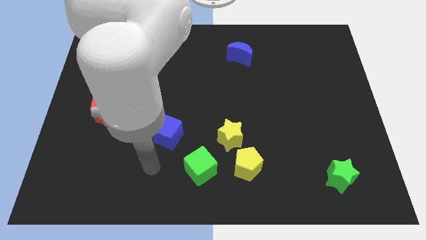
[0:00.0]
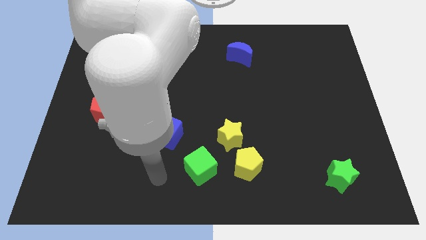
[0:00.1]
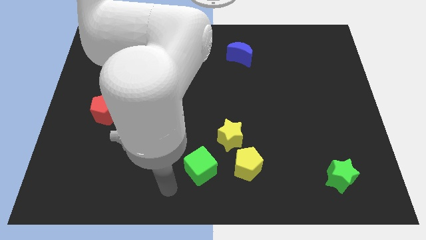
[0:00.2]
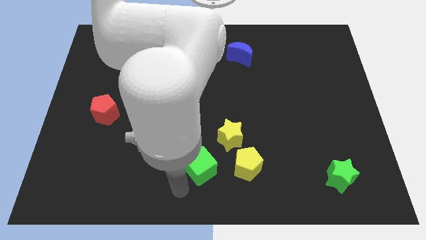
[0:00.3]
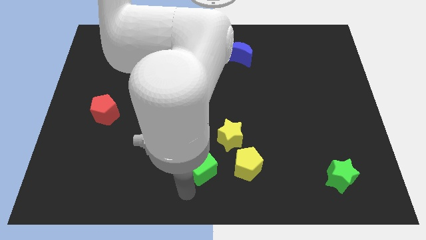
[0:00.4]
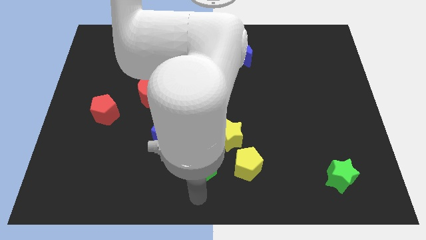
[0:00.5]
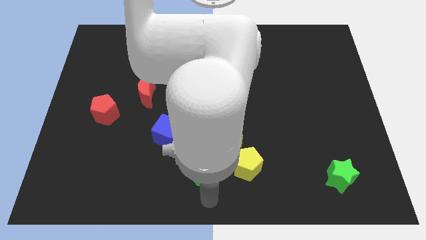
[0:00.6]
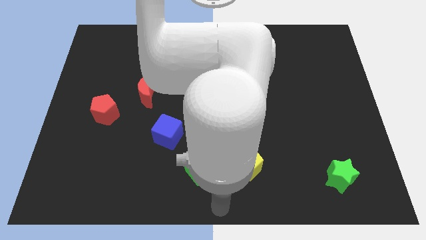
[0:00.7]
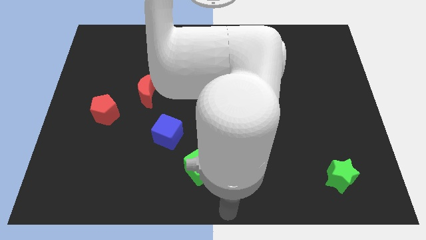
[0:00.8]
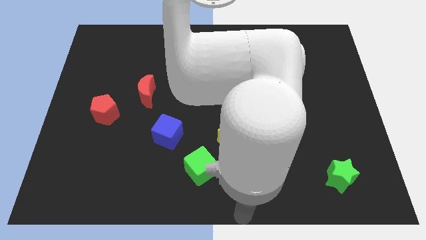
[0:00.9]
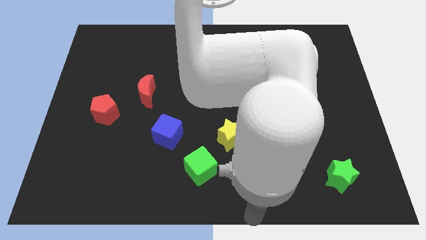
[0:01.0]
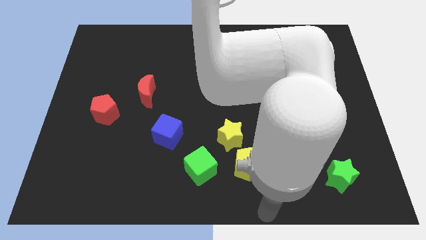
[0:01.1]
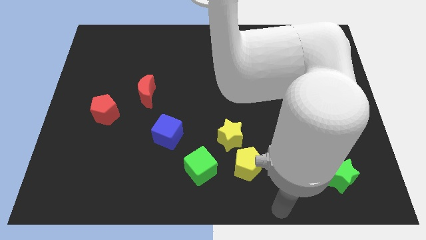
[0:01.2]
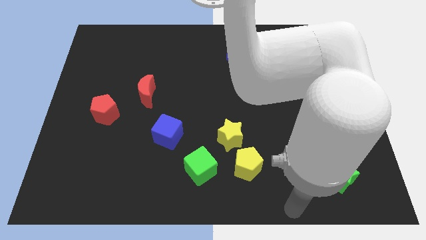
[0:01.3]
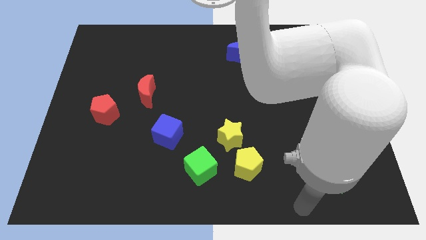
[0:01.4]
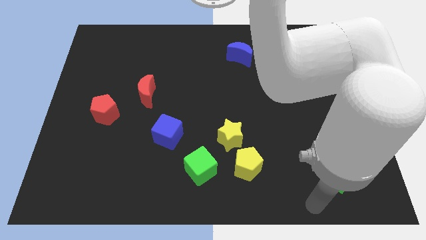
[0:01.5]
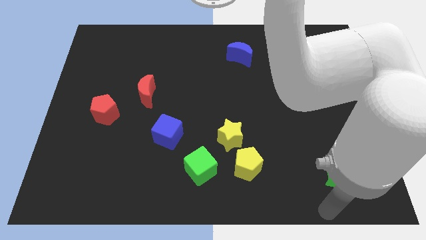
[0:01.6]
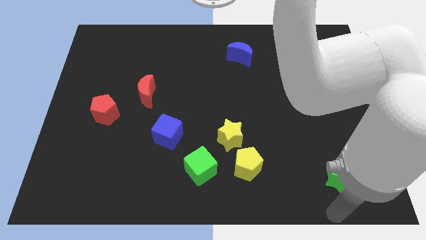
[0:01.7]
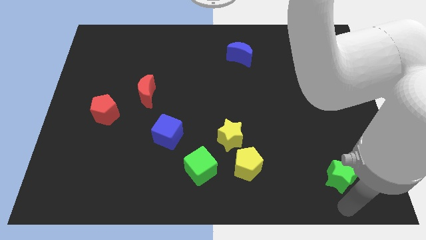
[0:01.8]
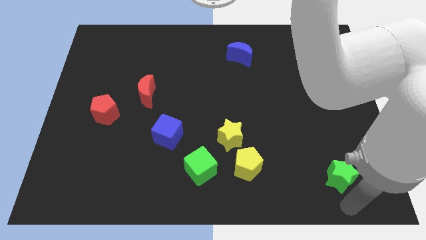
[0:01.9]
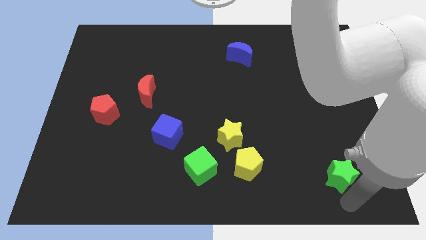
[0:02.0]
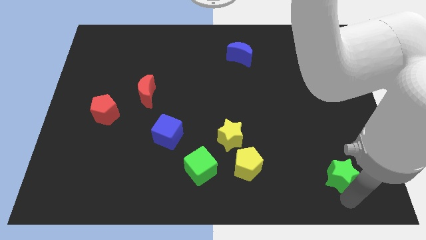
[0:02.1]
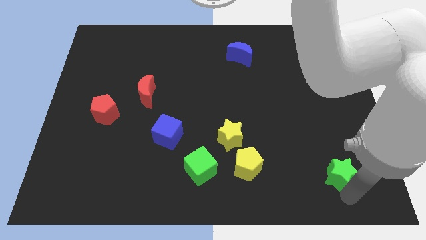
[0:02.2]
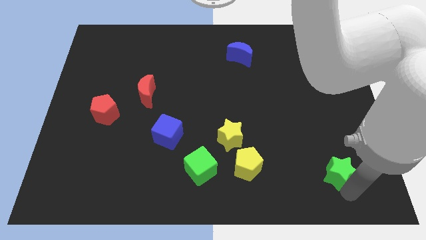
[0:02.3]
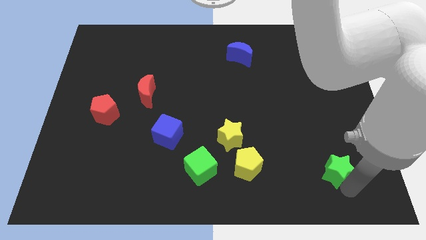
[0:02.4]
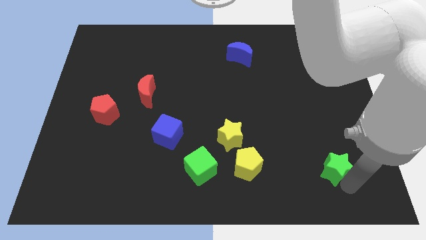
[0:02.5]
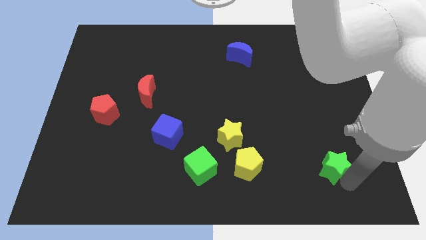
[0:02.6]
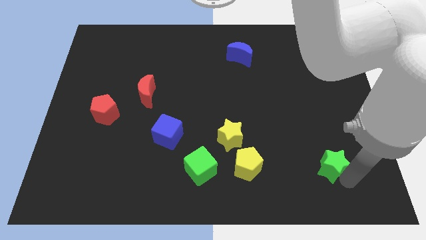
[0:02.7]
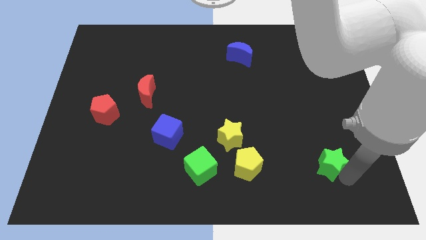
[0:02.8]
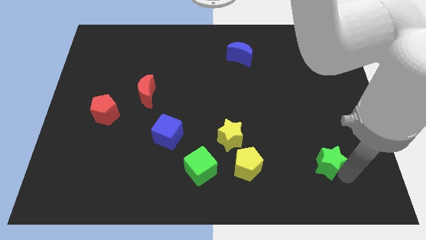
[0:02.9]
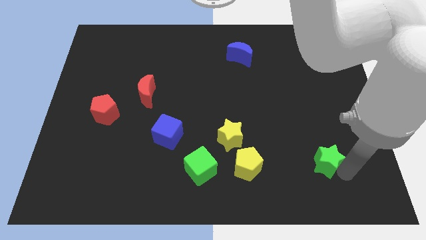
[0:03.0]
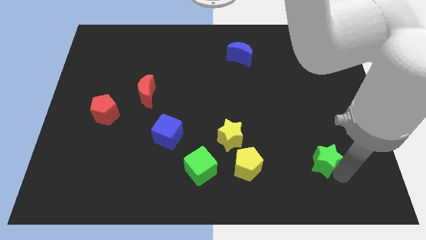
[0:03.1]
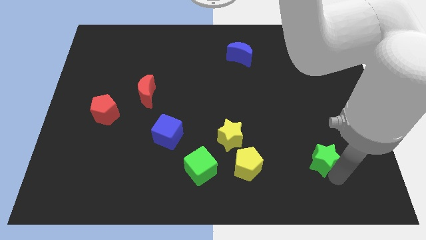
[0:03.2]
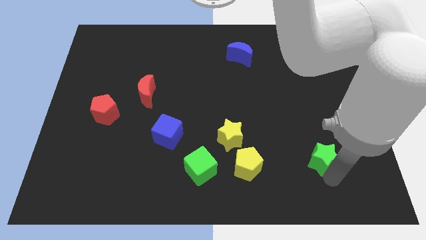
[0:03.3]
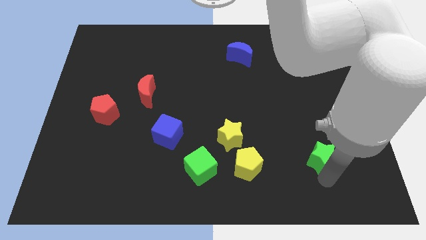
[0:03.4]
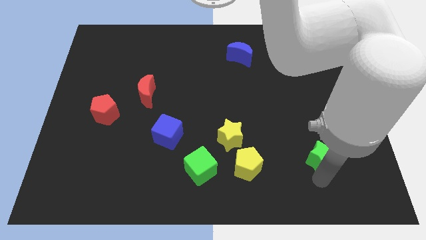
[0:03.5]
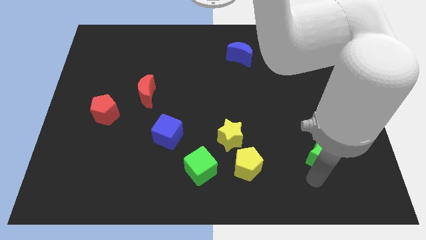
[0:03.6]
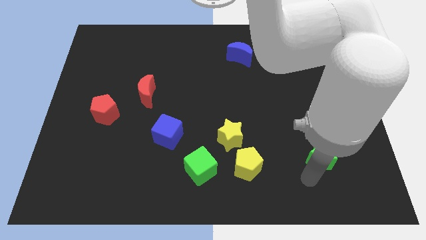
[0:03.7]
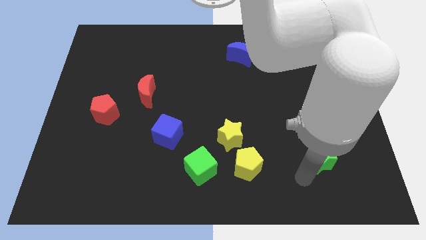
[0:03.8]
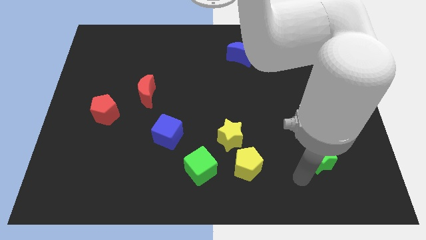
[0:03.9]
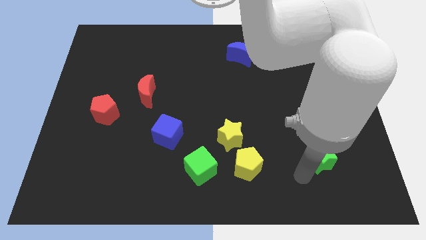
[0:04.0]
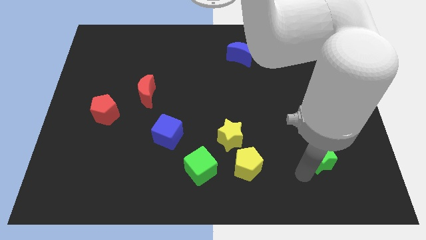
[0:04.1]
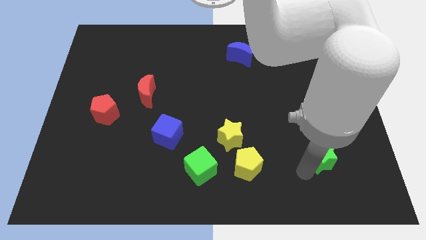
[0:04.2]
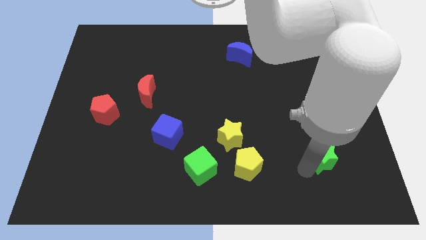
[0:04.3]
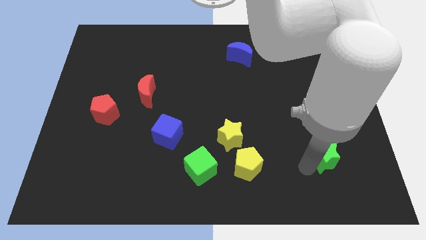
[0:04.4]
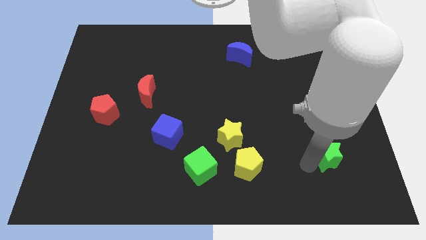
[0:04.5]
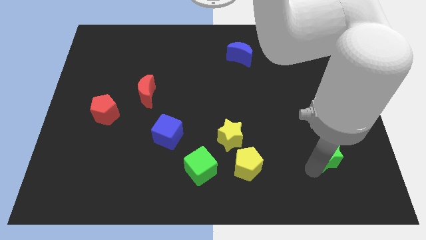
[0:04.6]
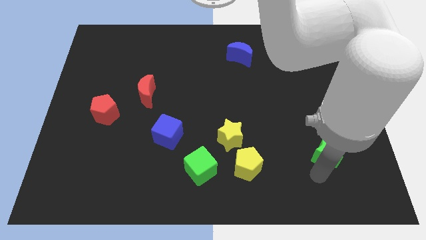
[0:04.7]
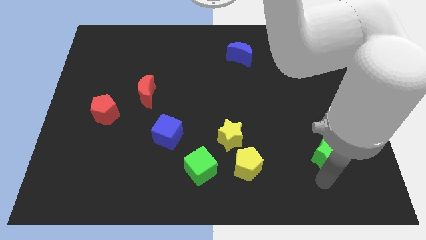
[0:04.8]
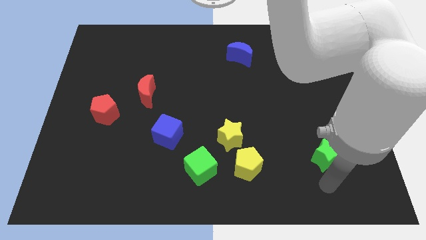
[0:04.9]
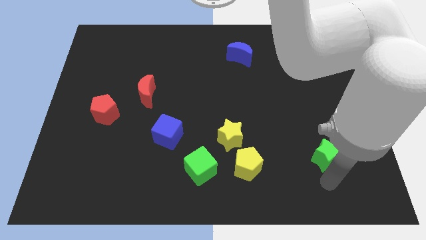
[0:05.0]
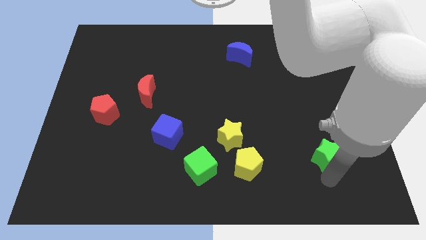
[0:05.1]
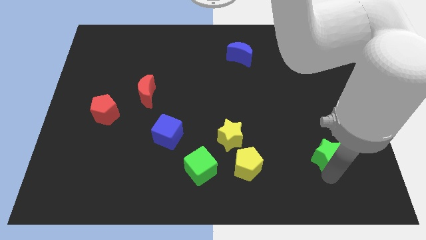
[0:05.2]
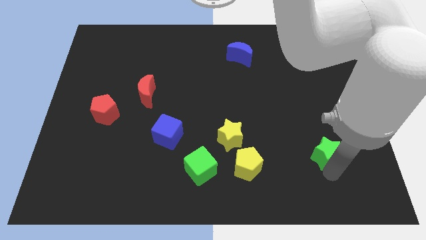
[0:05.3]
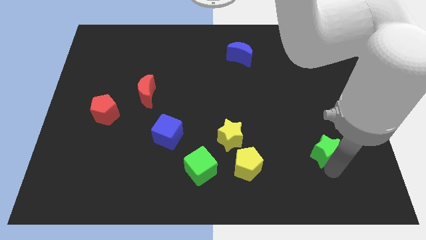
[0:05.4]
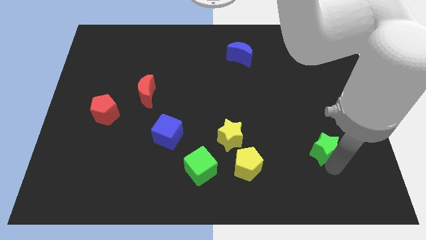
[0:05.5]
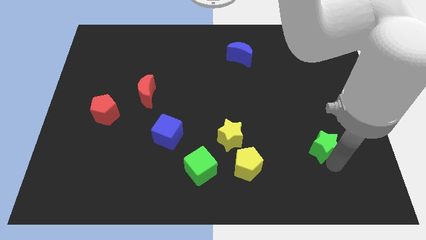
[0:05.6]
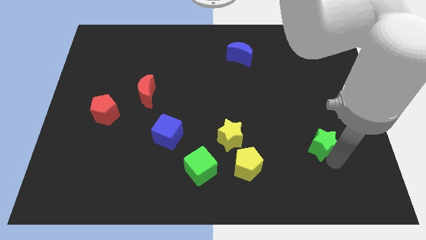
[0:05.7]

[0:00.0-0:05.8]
push the green star slightly upwards

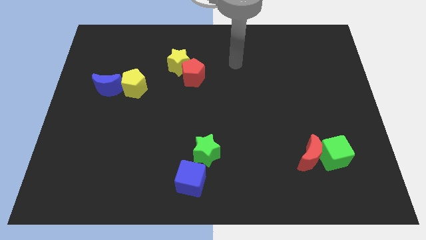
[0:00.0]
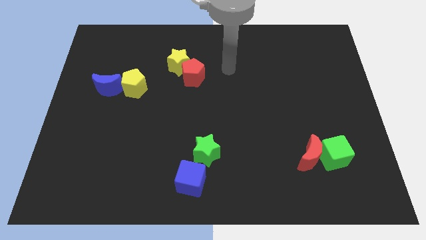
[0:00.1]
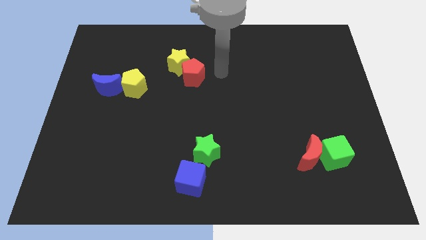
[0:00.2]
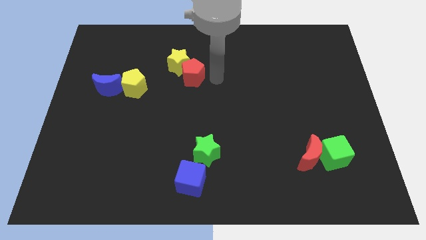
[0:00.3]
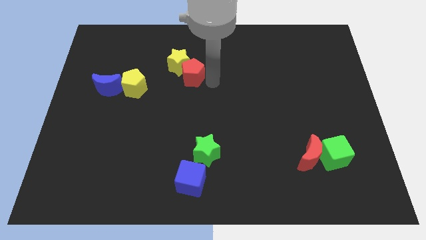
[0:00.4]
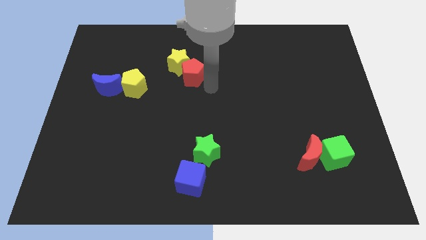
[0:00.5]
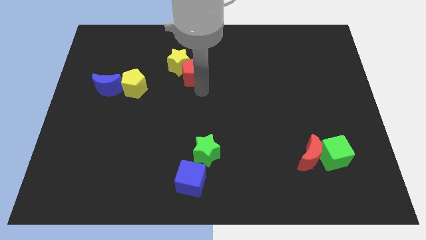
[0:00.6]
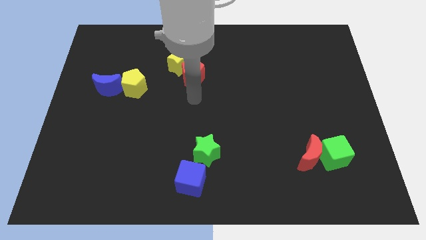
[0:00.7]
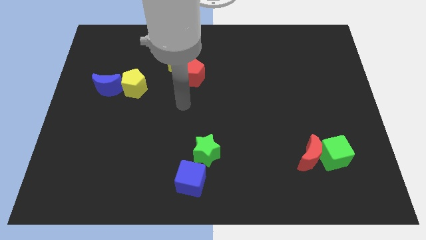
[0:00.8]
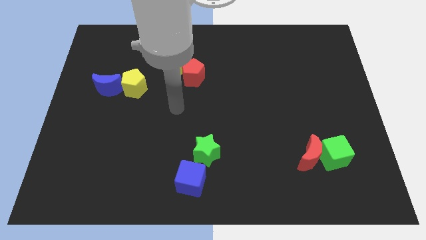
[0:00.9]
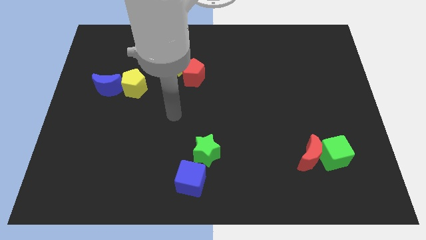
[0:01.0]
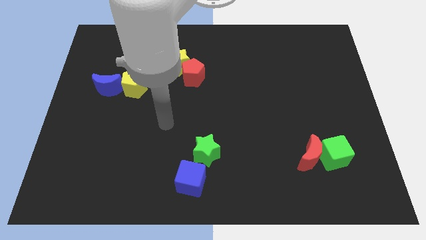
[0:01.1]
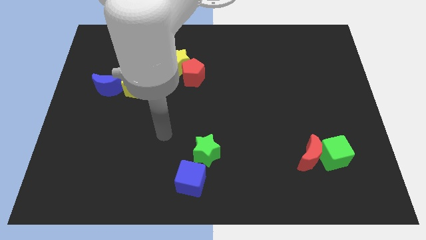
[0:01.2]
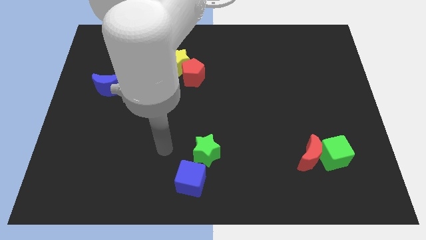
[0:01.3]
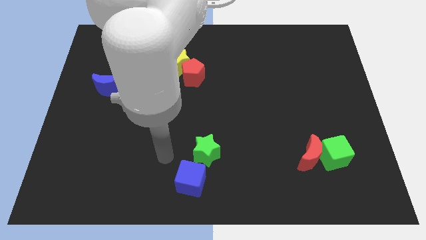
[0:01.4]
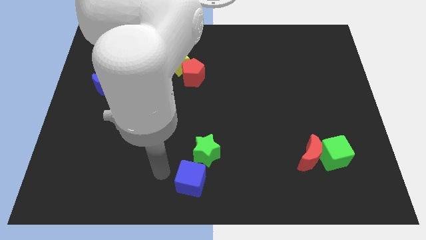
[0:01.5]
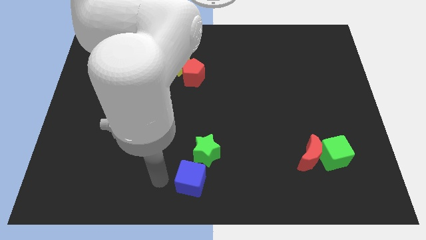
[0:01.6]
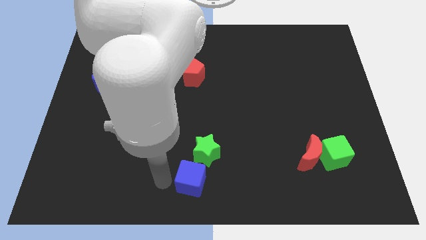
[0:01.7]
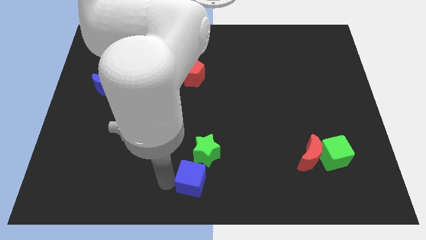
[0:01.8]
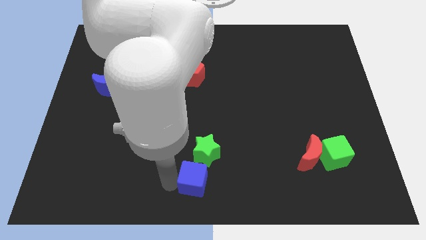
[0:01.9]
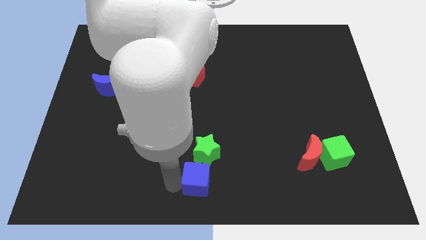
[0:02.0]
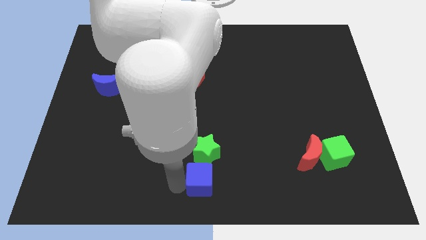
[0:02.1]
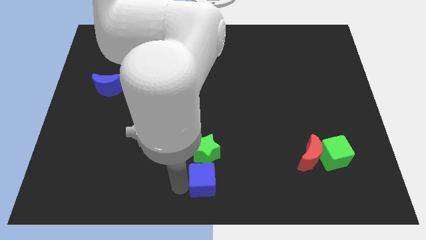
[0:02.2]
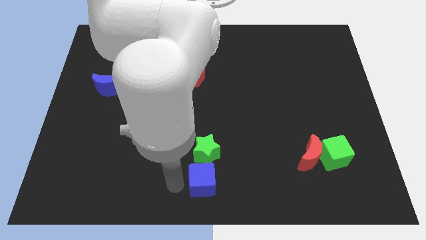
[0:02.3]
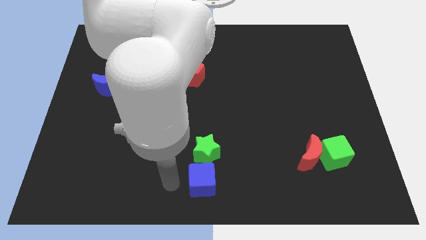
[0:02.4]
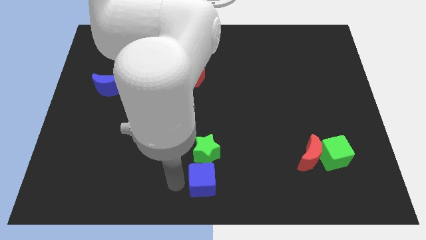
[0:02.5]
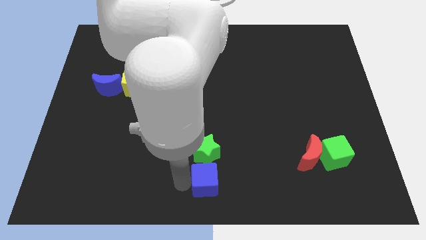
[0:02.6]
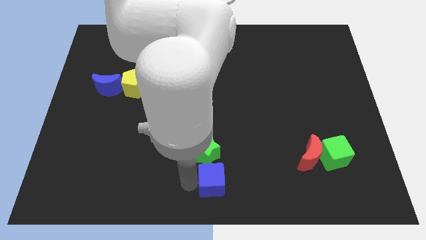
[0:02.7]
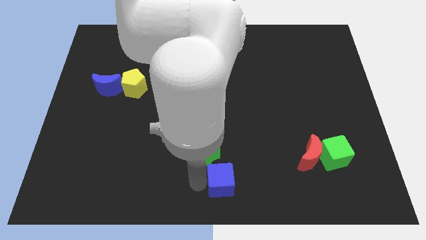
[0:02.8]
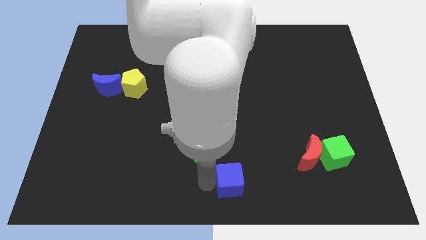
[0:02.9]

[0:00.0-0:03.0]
move the blue cube right a little

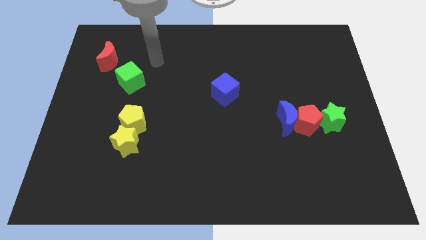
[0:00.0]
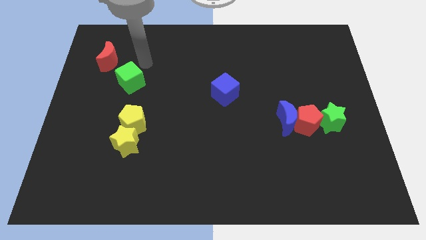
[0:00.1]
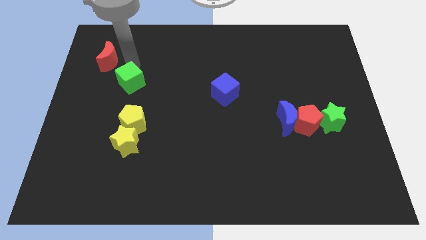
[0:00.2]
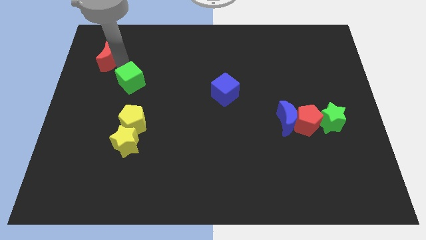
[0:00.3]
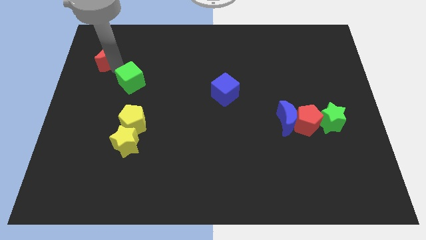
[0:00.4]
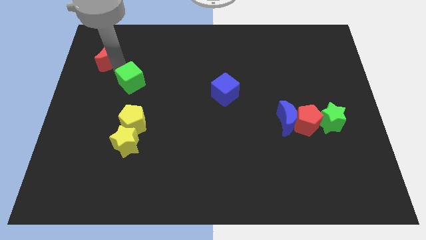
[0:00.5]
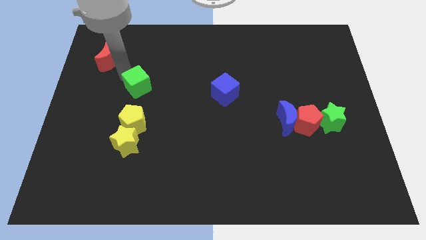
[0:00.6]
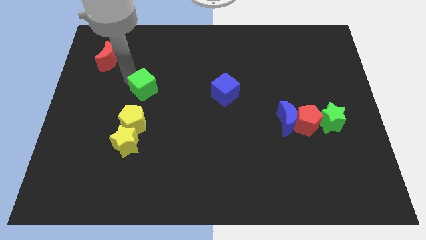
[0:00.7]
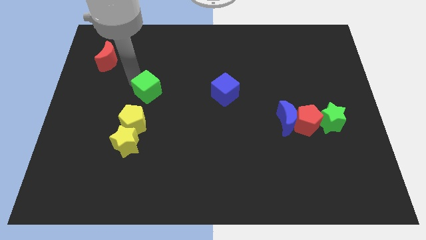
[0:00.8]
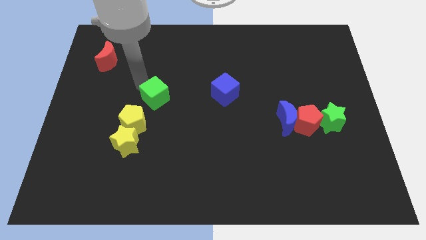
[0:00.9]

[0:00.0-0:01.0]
move the green cube downwards and to the right a little bit
